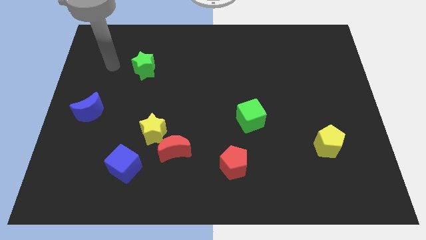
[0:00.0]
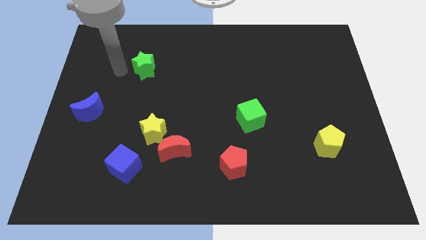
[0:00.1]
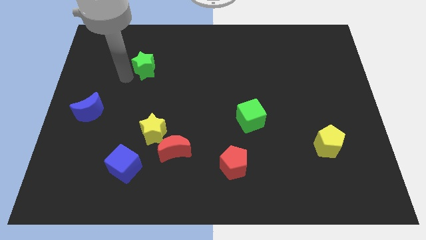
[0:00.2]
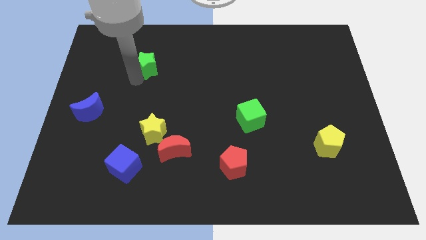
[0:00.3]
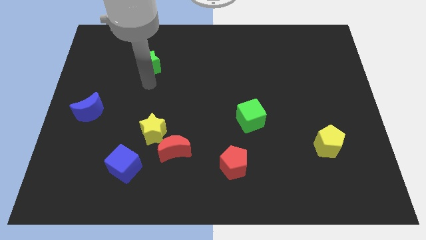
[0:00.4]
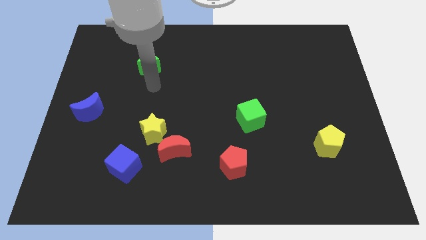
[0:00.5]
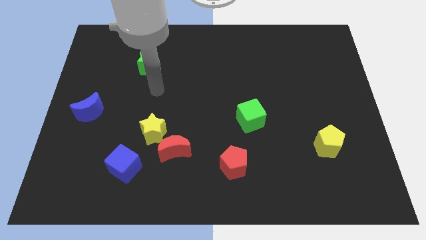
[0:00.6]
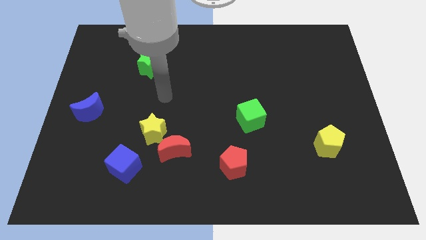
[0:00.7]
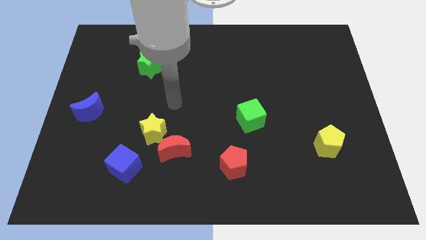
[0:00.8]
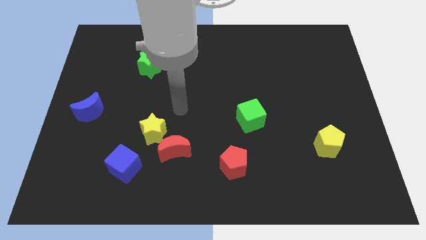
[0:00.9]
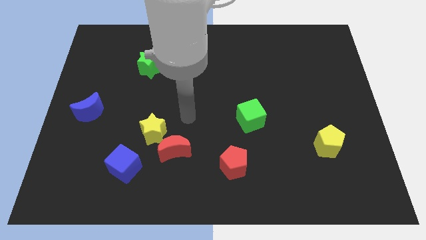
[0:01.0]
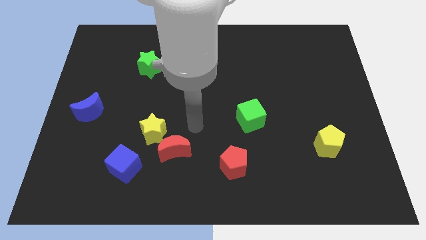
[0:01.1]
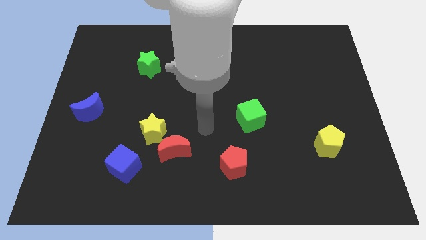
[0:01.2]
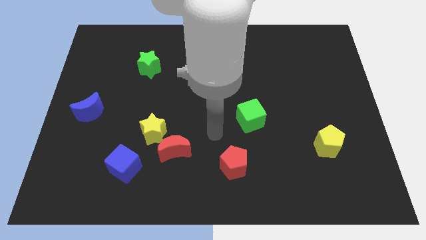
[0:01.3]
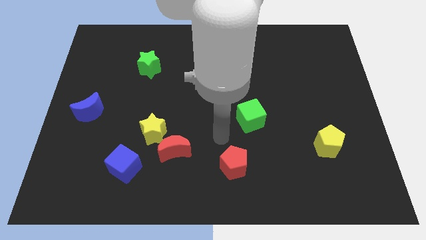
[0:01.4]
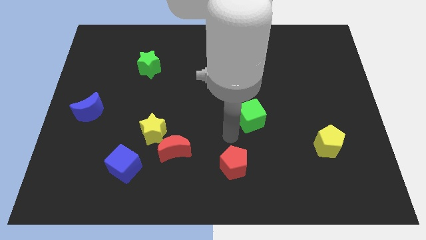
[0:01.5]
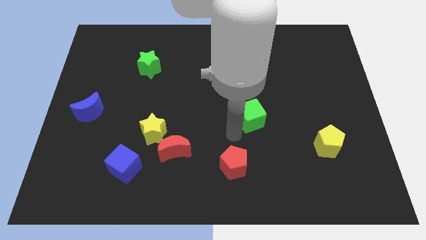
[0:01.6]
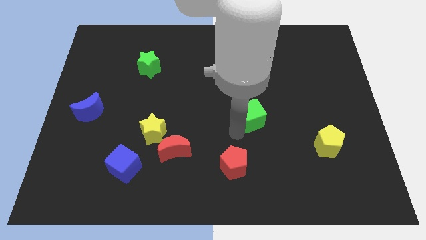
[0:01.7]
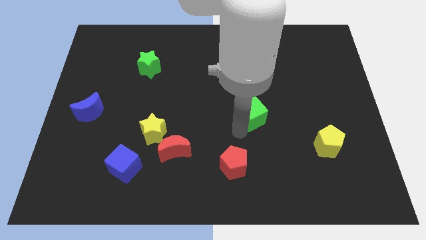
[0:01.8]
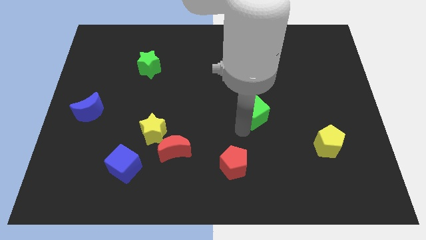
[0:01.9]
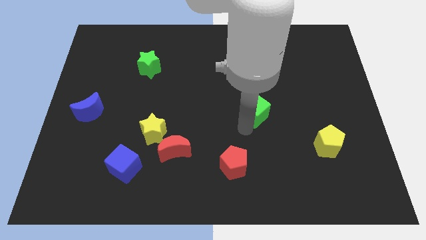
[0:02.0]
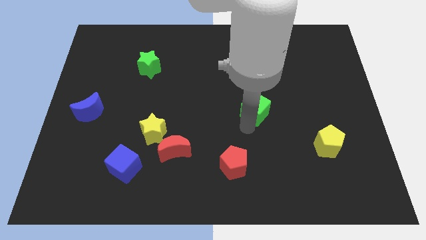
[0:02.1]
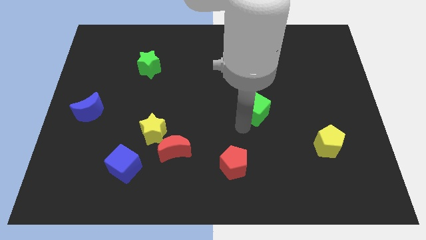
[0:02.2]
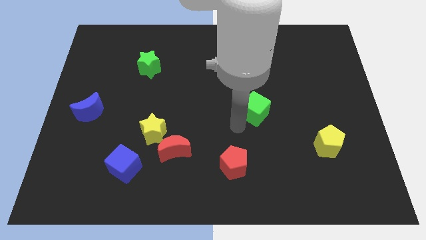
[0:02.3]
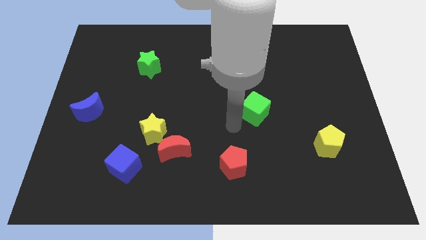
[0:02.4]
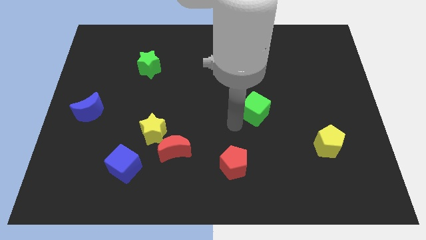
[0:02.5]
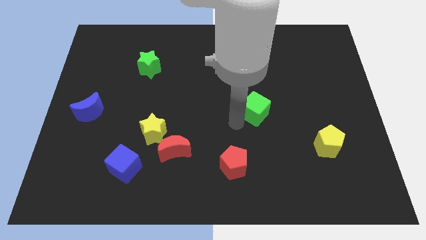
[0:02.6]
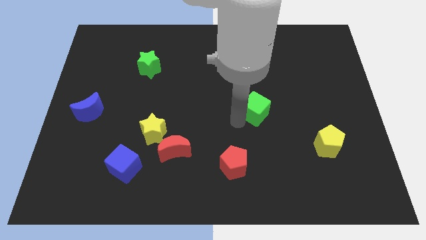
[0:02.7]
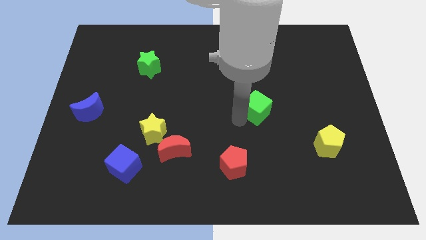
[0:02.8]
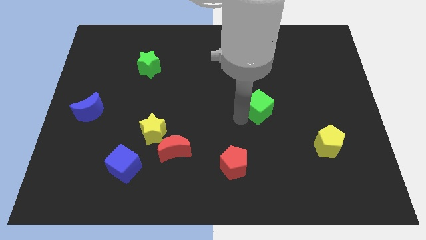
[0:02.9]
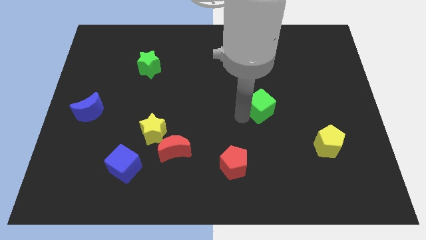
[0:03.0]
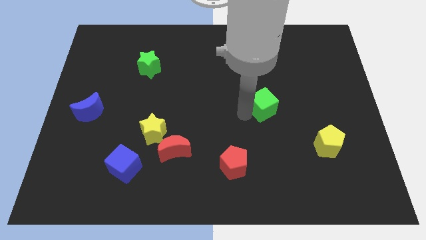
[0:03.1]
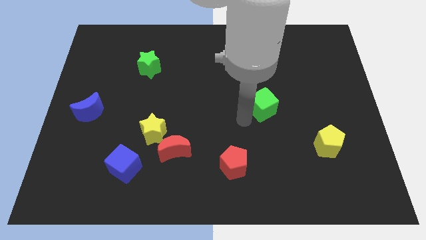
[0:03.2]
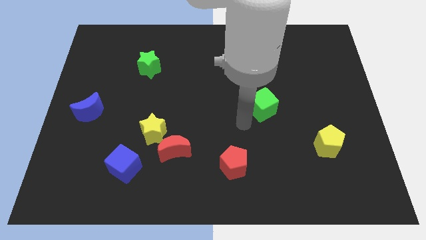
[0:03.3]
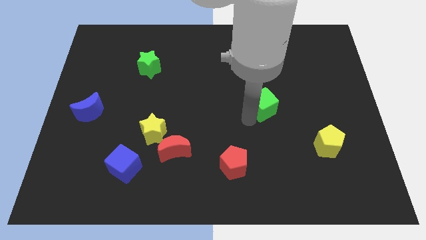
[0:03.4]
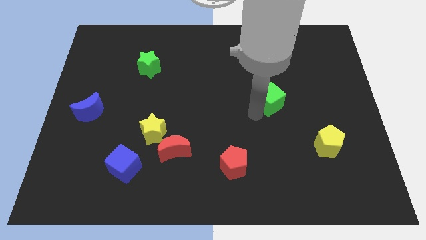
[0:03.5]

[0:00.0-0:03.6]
slightly push the green cube diagonally up and to the right

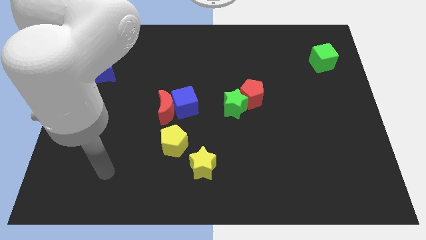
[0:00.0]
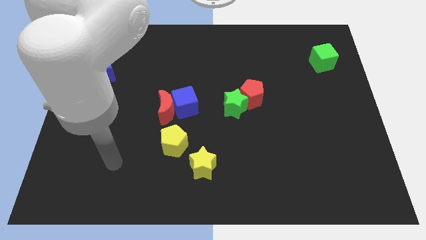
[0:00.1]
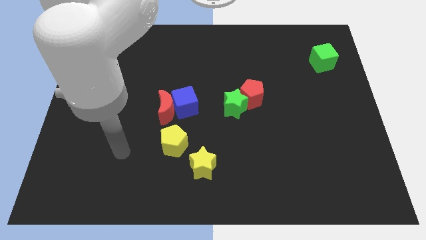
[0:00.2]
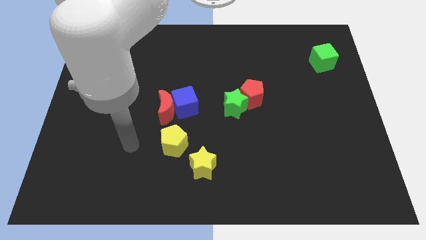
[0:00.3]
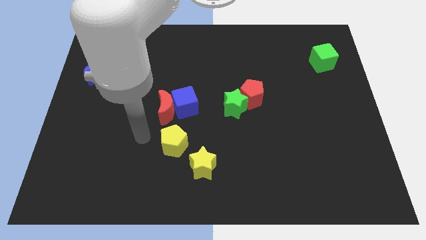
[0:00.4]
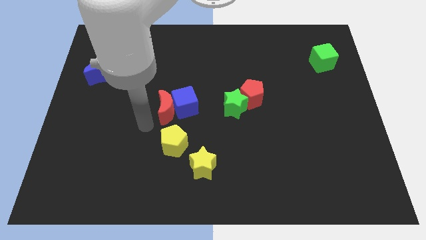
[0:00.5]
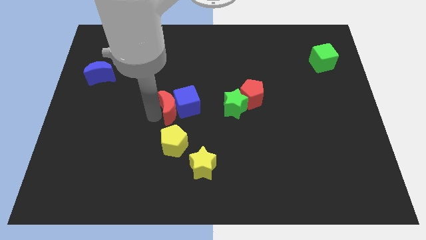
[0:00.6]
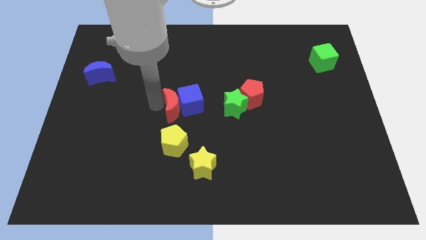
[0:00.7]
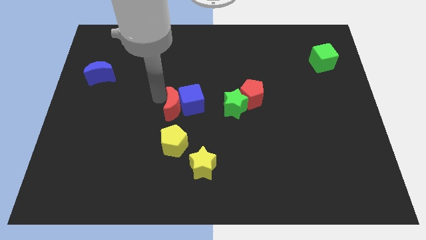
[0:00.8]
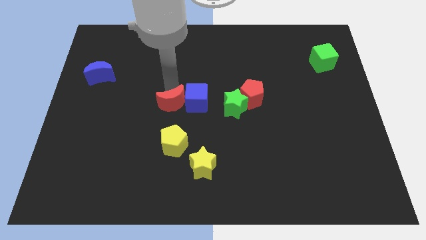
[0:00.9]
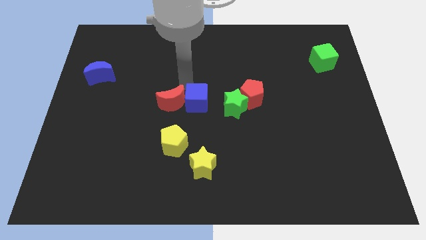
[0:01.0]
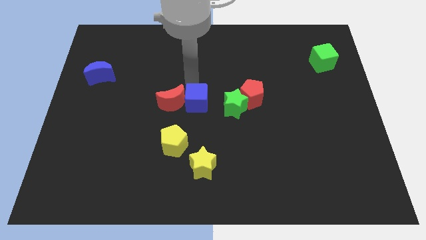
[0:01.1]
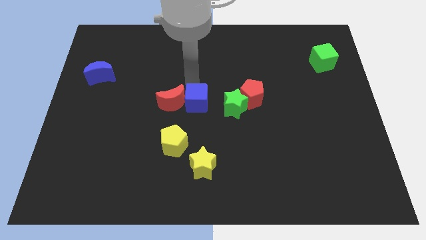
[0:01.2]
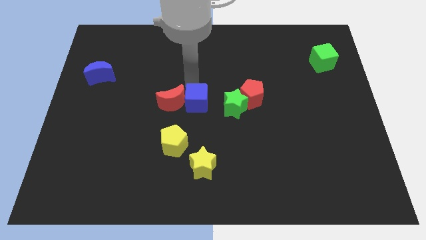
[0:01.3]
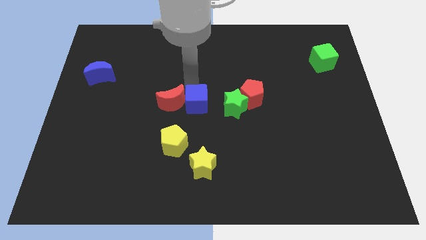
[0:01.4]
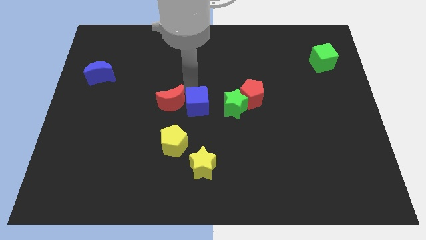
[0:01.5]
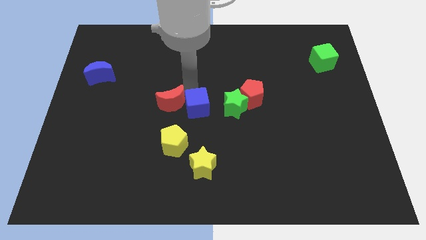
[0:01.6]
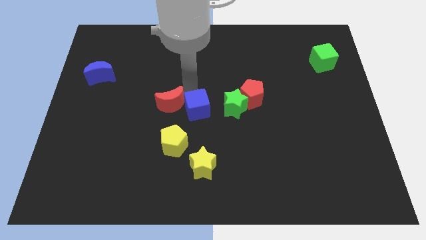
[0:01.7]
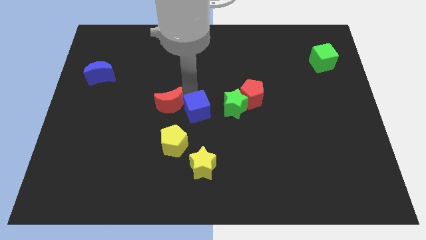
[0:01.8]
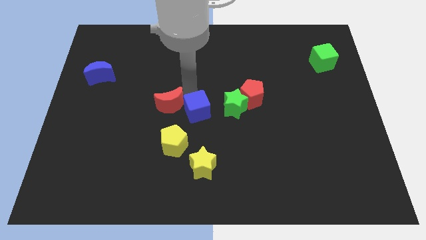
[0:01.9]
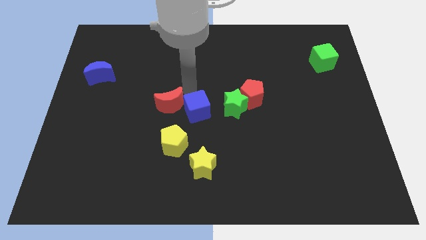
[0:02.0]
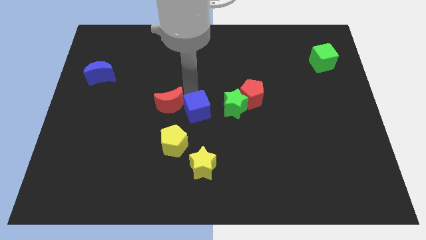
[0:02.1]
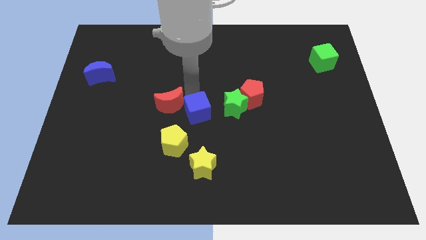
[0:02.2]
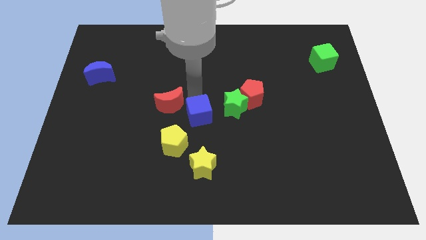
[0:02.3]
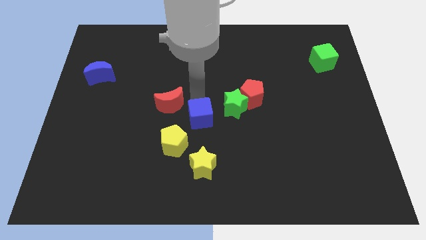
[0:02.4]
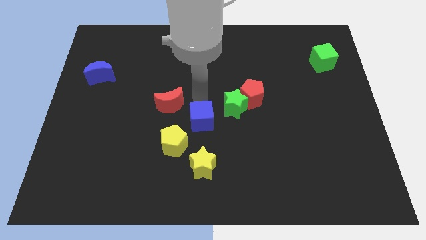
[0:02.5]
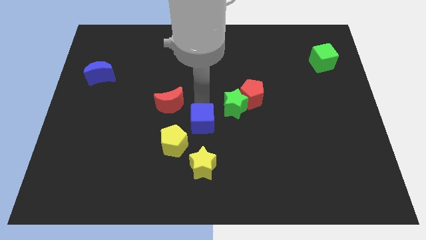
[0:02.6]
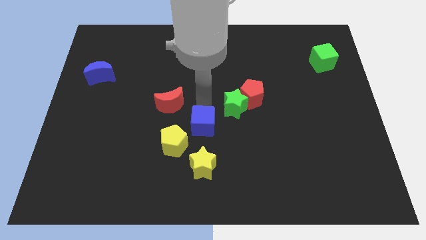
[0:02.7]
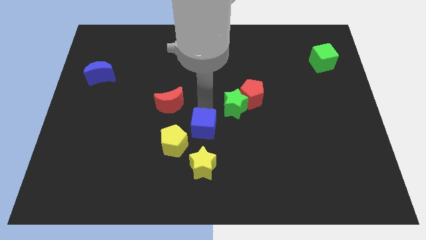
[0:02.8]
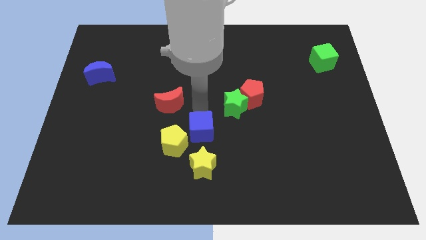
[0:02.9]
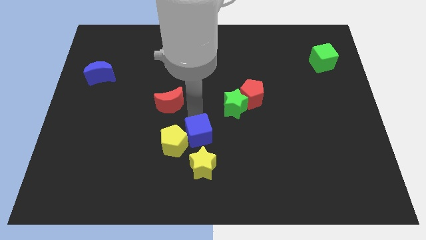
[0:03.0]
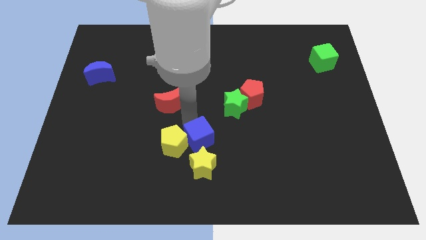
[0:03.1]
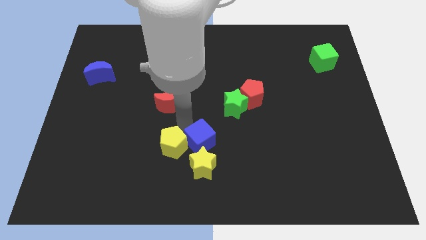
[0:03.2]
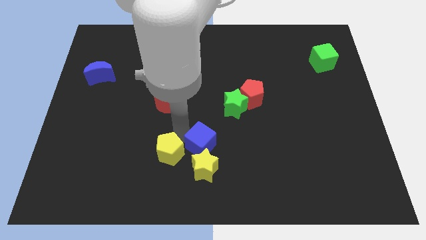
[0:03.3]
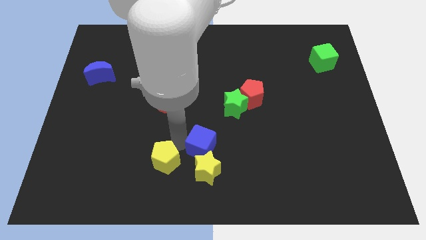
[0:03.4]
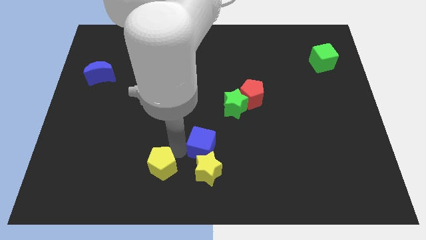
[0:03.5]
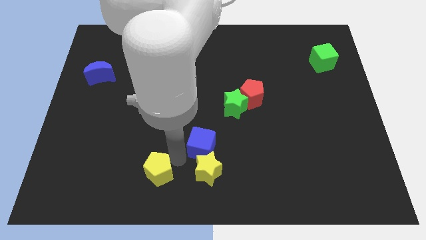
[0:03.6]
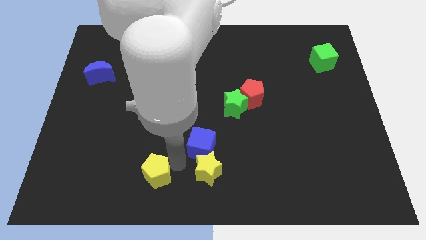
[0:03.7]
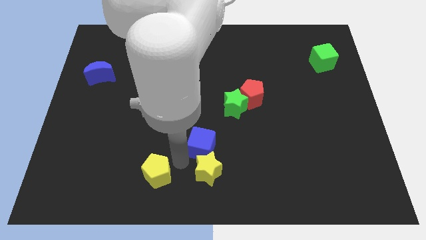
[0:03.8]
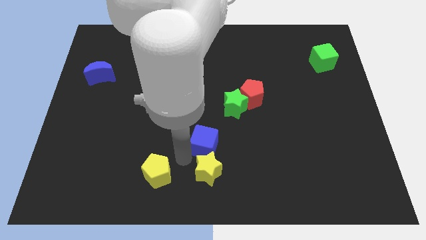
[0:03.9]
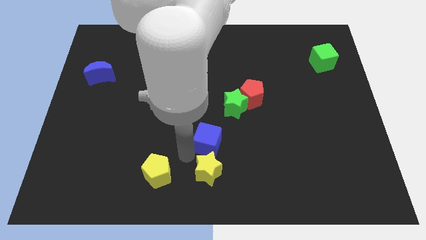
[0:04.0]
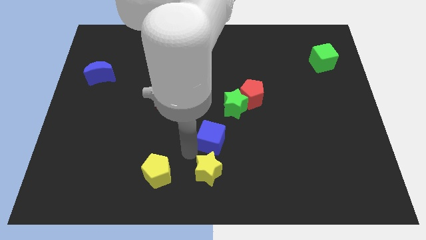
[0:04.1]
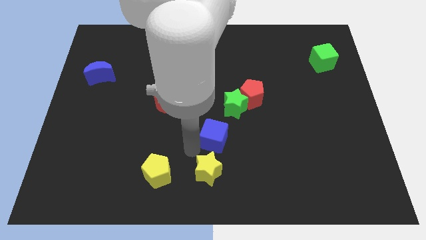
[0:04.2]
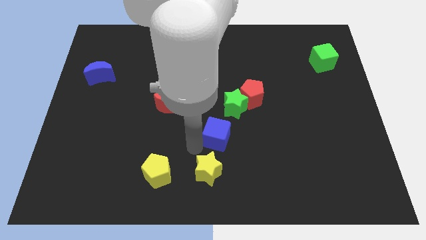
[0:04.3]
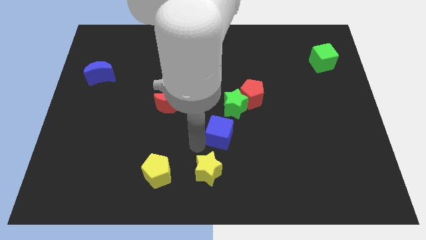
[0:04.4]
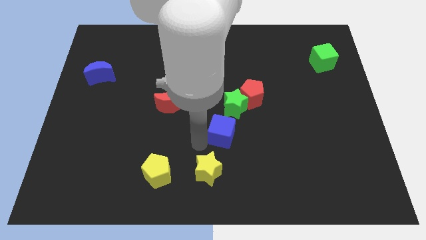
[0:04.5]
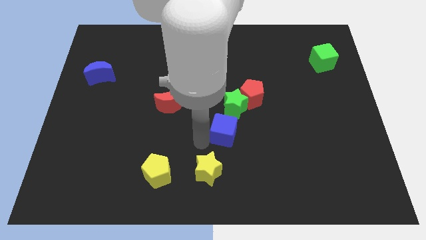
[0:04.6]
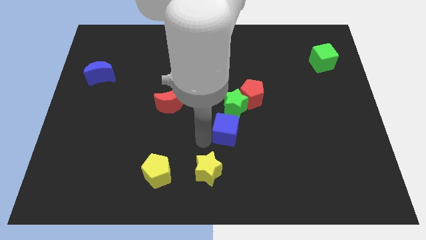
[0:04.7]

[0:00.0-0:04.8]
slide the blue cube right slightly
